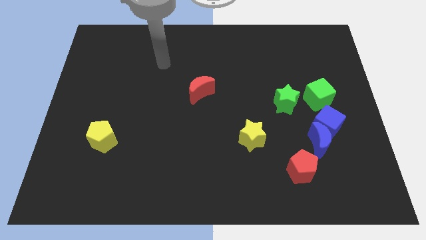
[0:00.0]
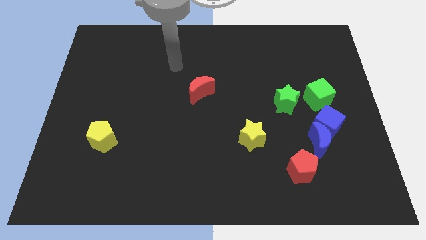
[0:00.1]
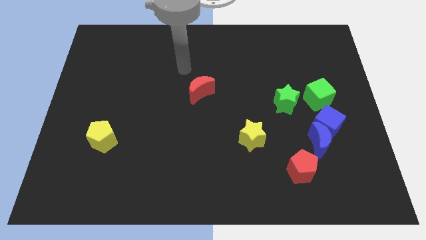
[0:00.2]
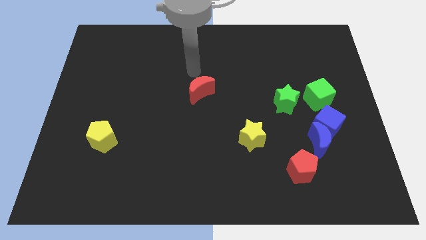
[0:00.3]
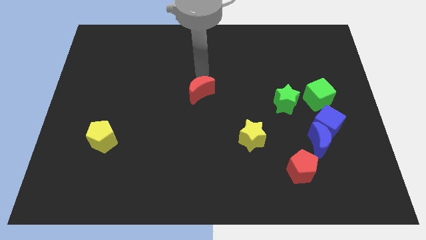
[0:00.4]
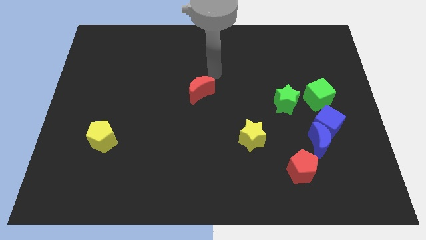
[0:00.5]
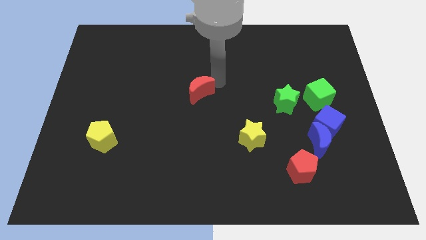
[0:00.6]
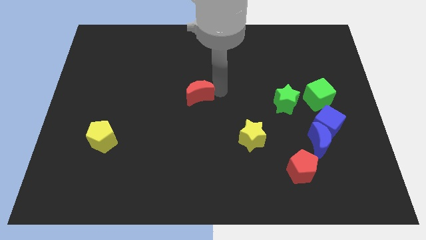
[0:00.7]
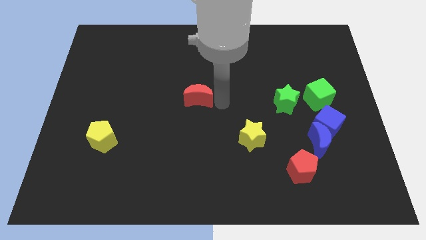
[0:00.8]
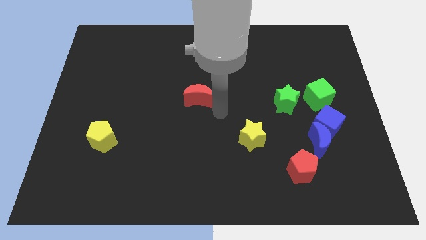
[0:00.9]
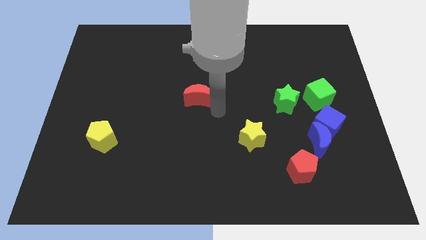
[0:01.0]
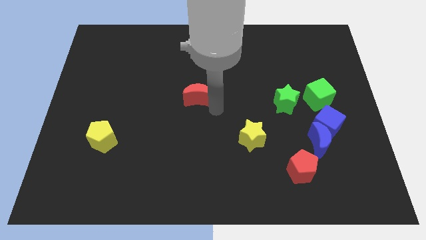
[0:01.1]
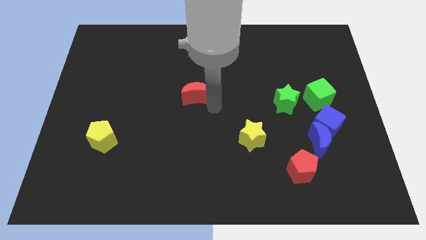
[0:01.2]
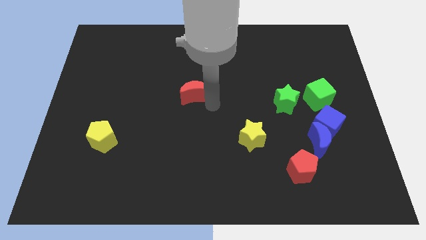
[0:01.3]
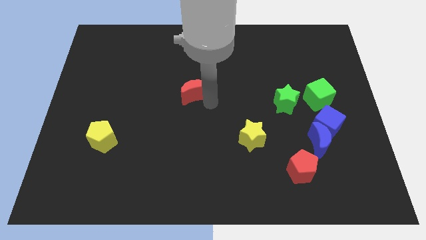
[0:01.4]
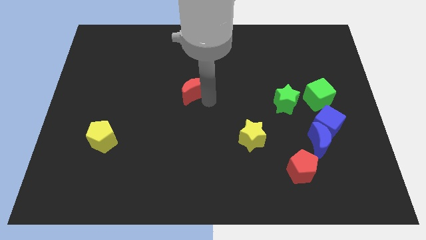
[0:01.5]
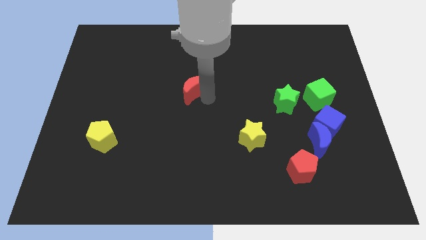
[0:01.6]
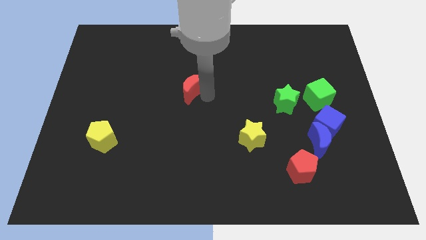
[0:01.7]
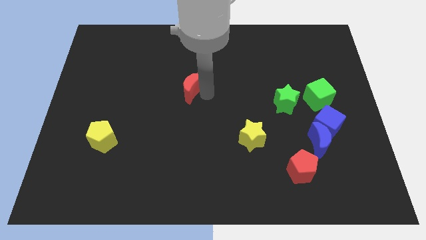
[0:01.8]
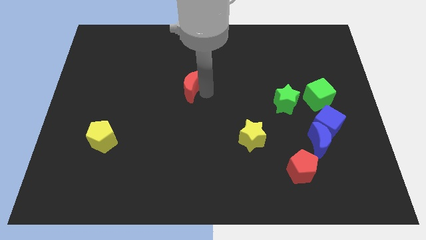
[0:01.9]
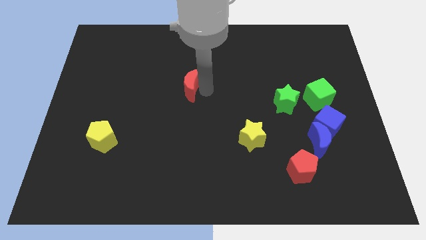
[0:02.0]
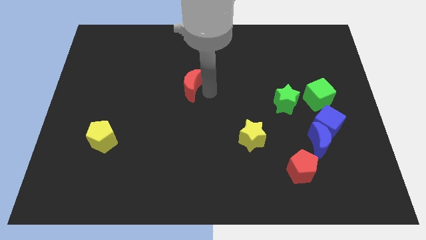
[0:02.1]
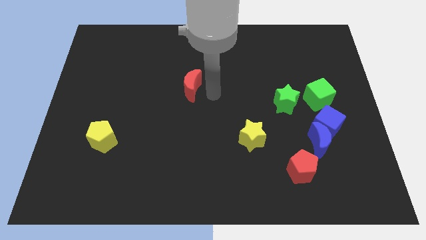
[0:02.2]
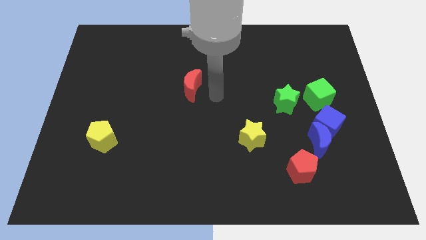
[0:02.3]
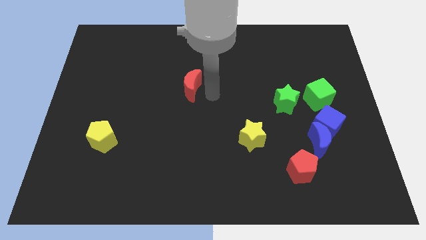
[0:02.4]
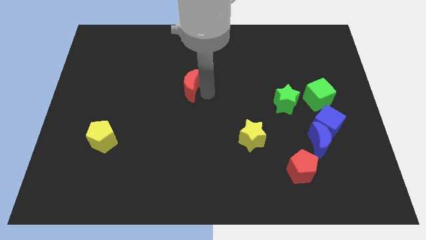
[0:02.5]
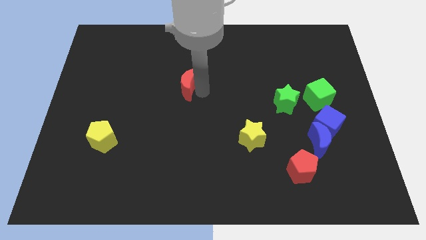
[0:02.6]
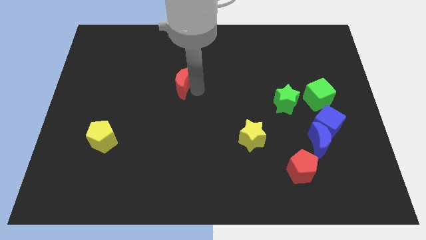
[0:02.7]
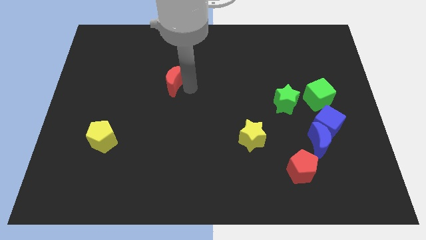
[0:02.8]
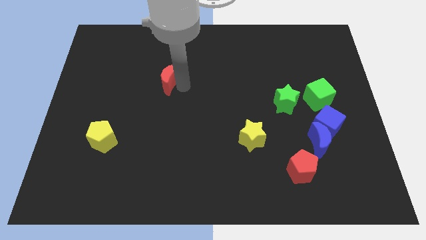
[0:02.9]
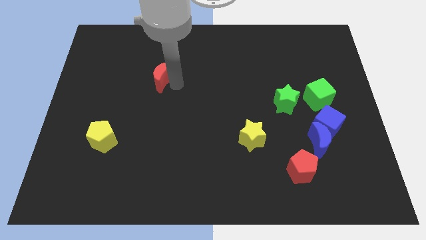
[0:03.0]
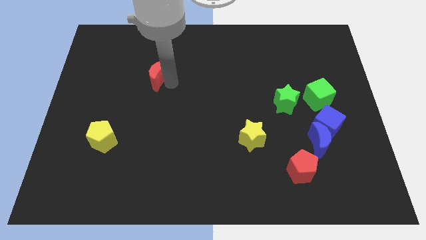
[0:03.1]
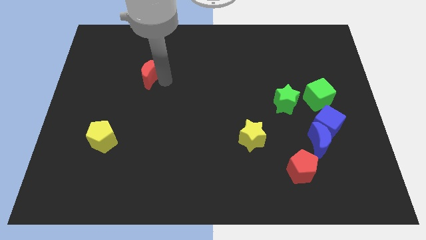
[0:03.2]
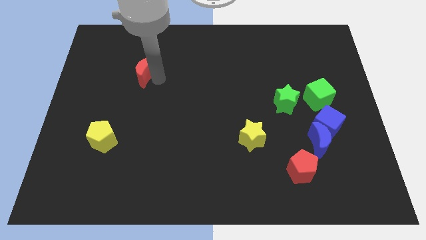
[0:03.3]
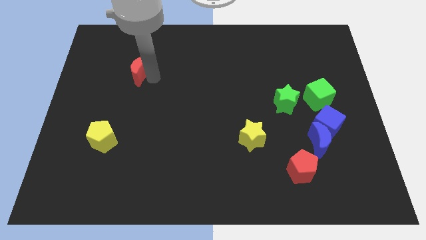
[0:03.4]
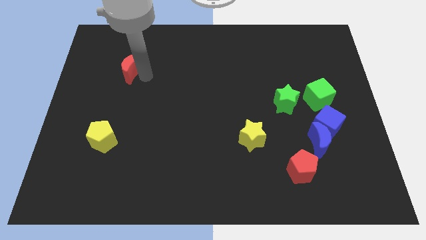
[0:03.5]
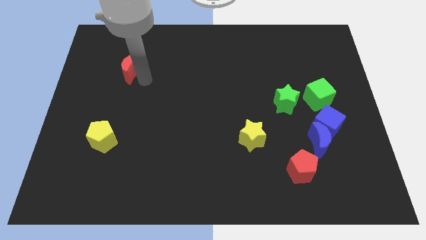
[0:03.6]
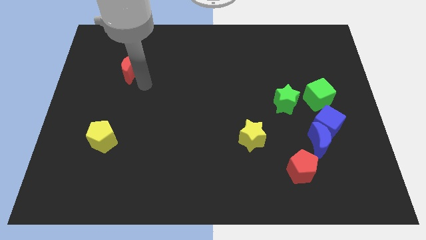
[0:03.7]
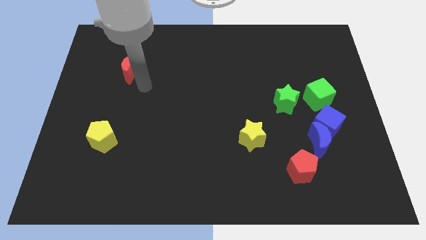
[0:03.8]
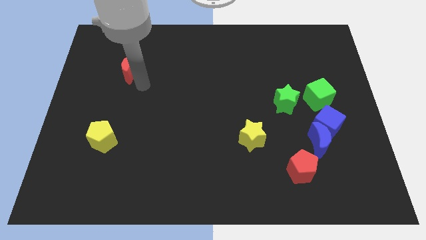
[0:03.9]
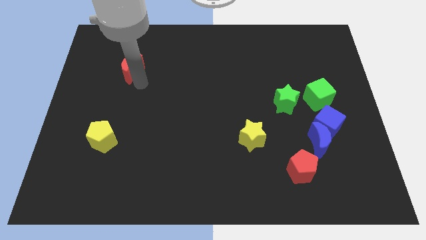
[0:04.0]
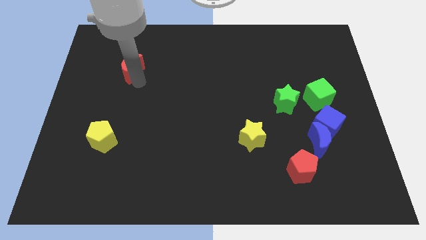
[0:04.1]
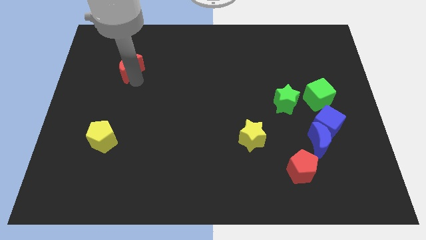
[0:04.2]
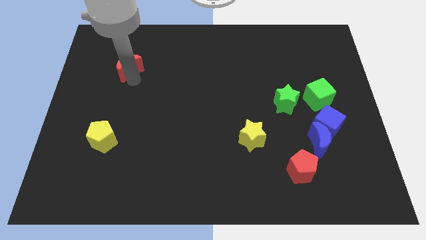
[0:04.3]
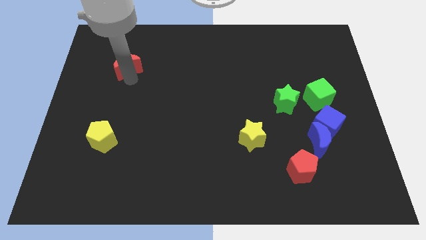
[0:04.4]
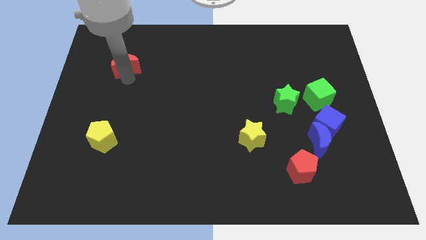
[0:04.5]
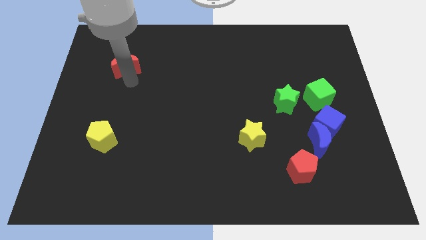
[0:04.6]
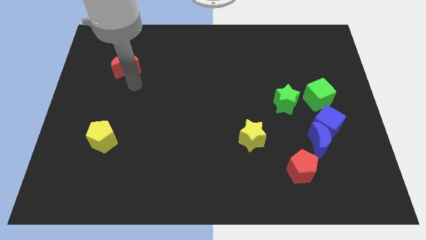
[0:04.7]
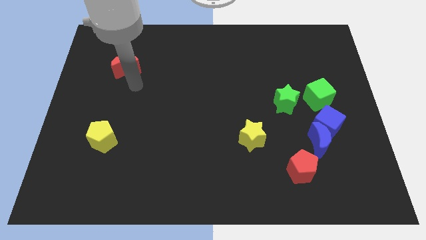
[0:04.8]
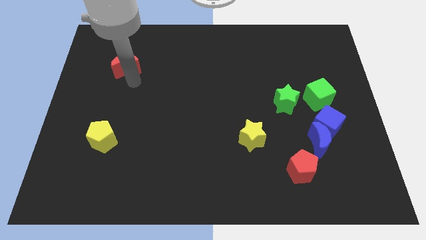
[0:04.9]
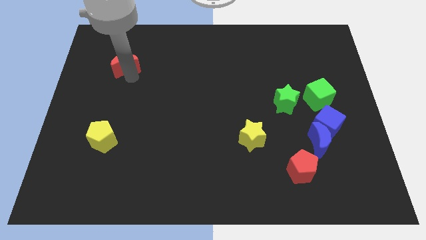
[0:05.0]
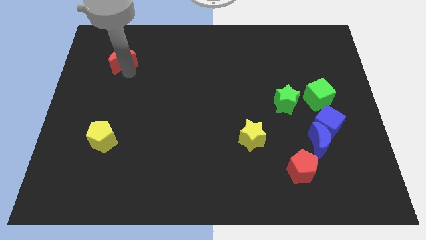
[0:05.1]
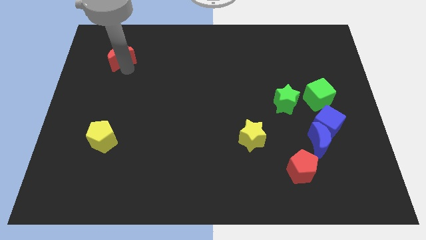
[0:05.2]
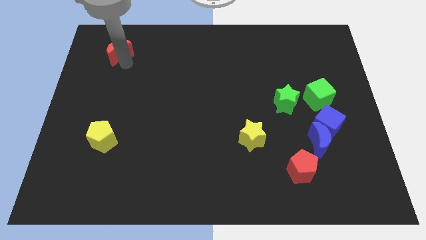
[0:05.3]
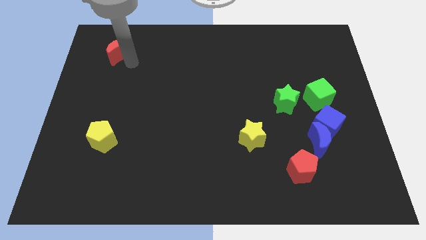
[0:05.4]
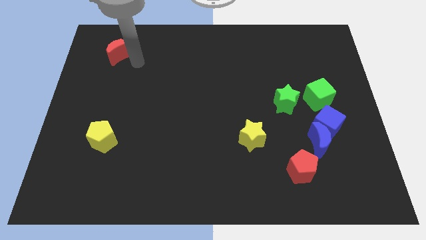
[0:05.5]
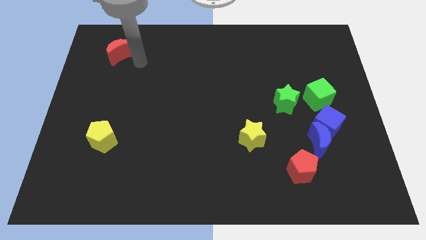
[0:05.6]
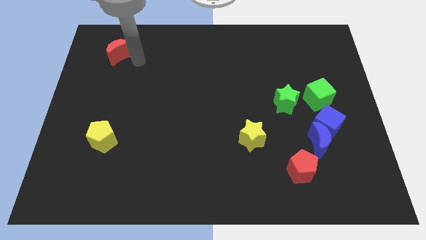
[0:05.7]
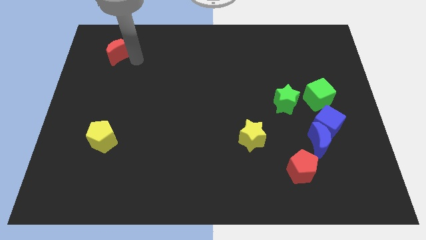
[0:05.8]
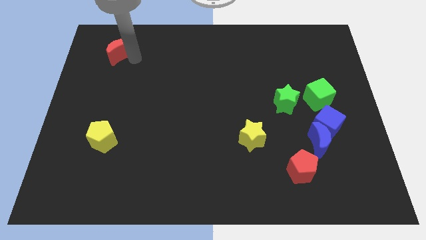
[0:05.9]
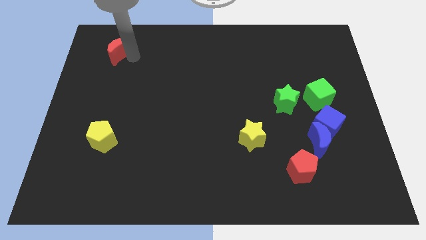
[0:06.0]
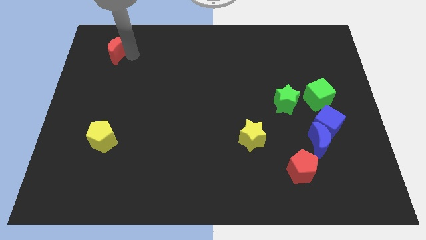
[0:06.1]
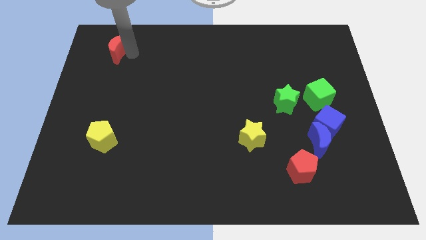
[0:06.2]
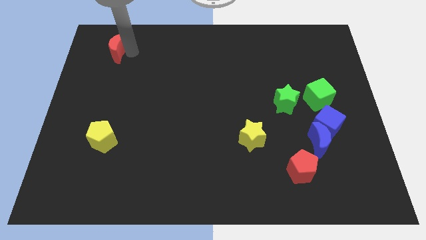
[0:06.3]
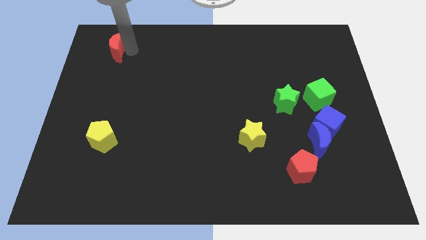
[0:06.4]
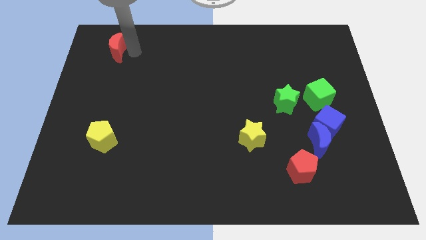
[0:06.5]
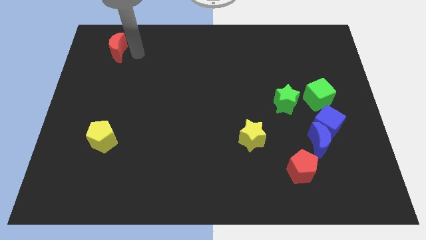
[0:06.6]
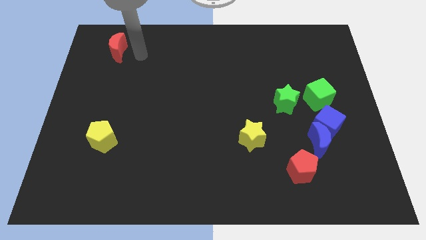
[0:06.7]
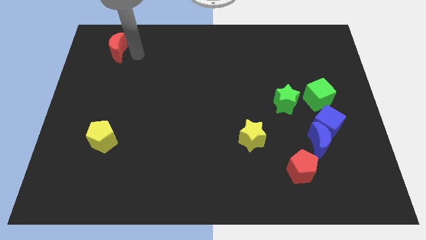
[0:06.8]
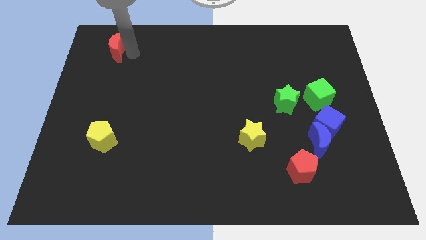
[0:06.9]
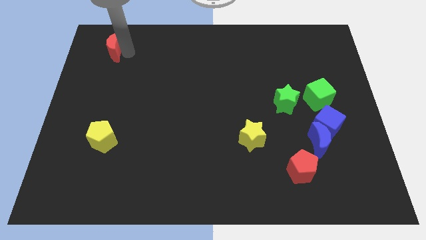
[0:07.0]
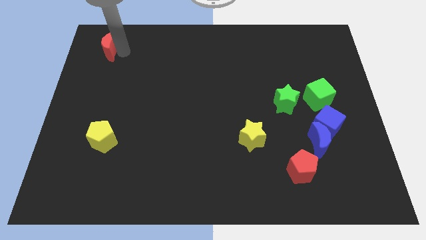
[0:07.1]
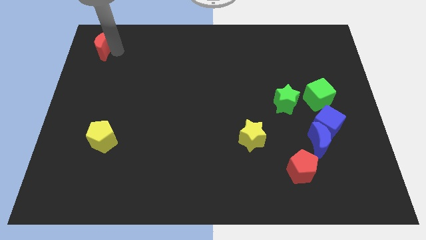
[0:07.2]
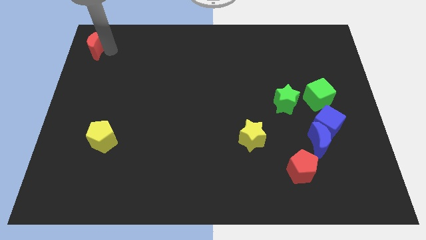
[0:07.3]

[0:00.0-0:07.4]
put the red moon to the top left of the board
